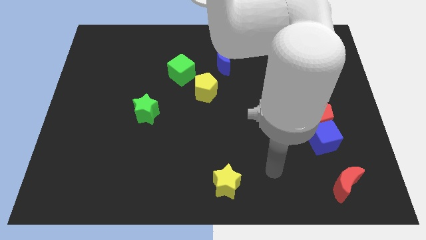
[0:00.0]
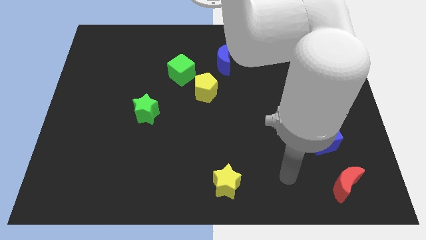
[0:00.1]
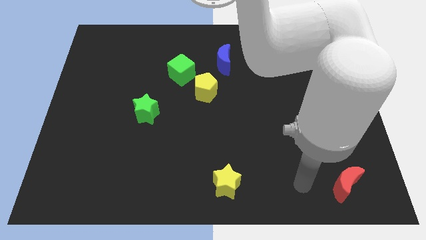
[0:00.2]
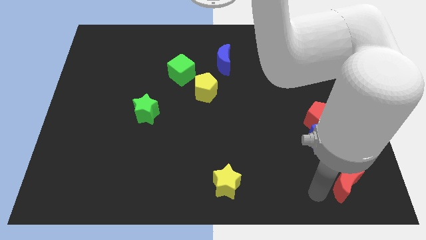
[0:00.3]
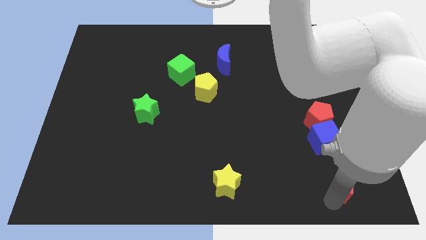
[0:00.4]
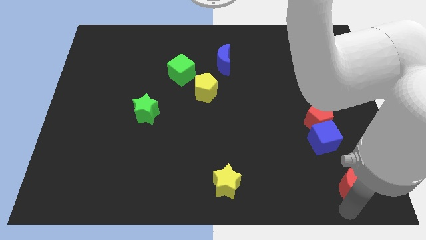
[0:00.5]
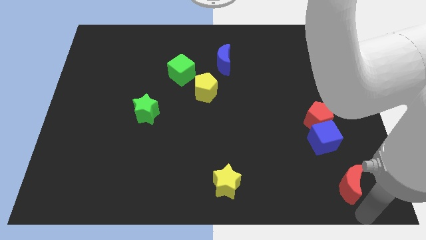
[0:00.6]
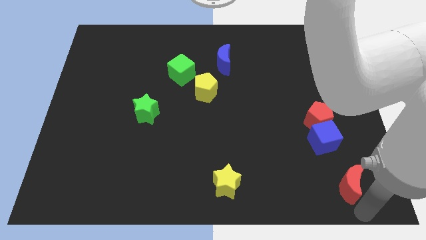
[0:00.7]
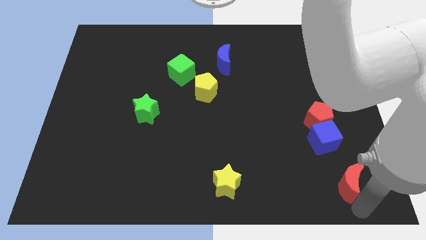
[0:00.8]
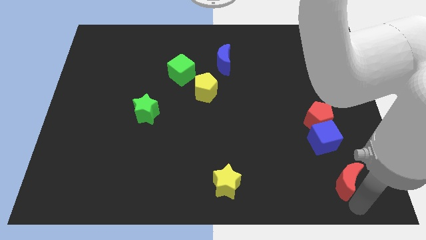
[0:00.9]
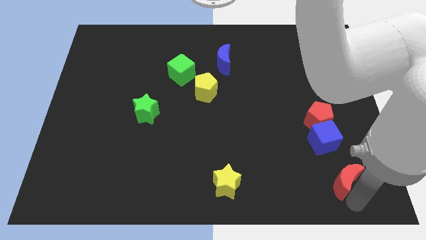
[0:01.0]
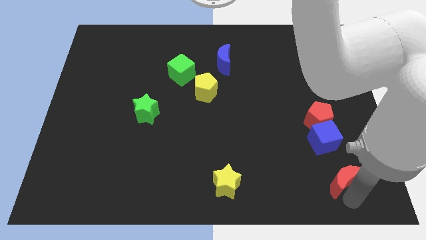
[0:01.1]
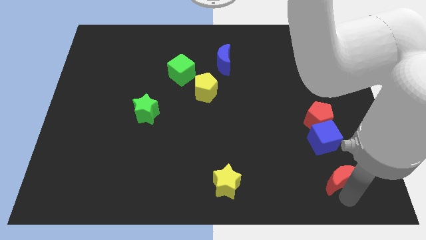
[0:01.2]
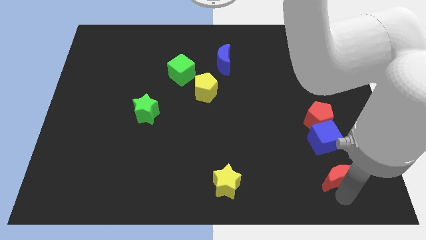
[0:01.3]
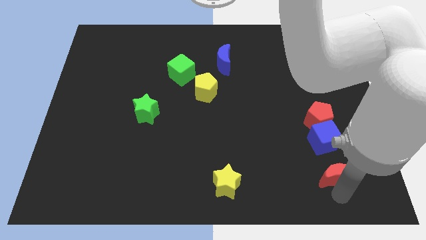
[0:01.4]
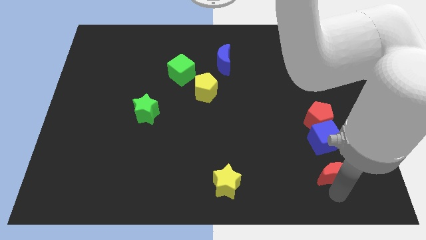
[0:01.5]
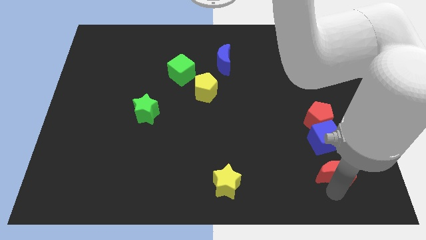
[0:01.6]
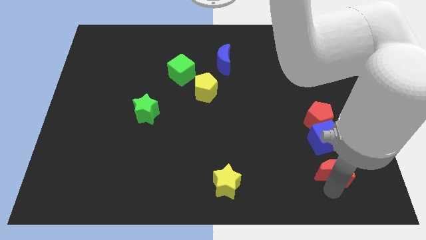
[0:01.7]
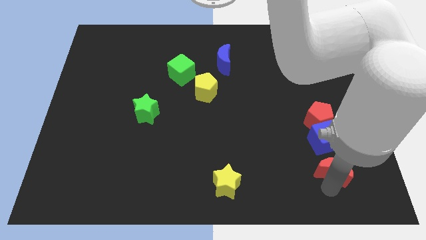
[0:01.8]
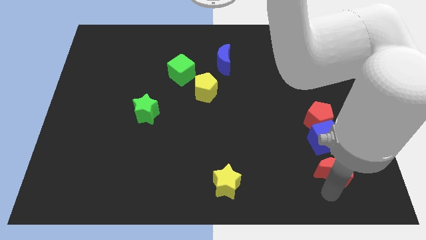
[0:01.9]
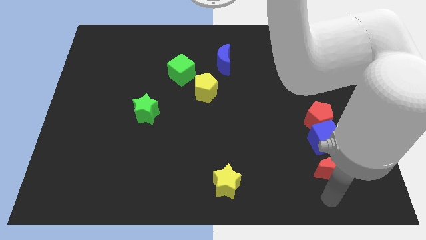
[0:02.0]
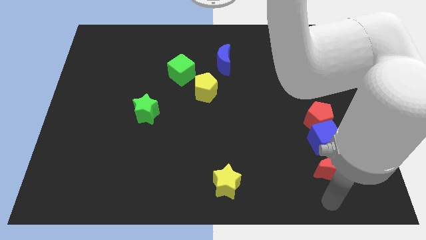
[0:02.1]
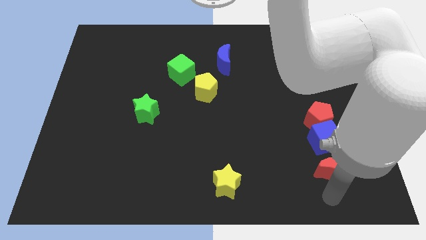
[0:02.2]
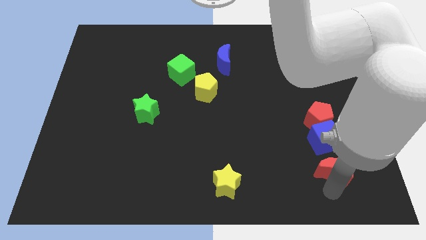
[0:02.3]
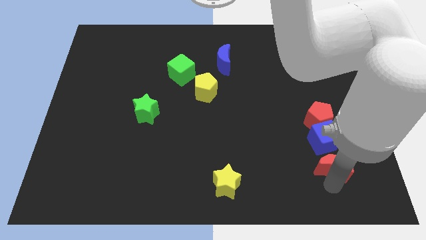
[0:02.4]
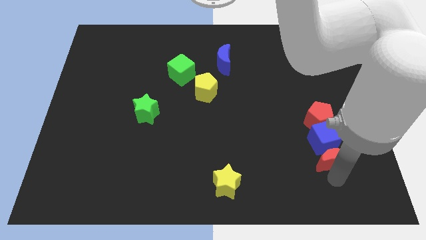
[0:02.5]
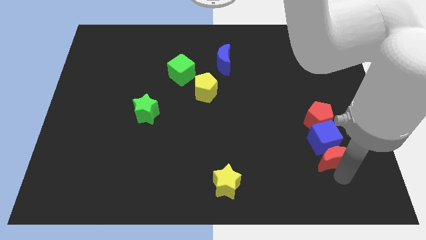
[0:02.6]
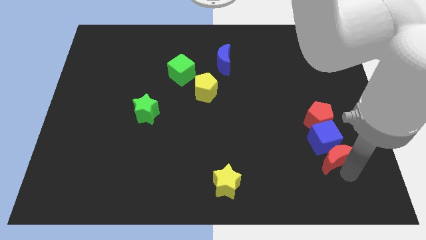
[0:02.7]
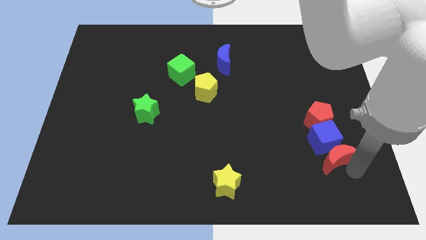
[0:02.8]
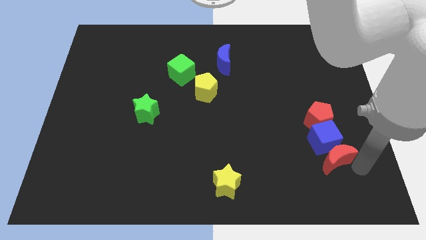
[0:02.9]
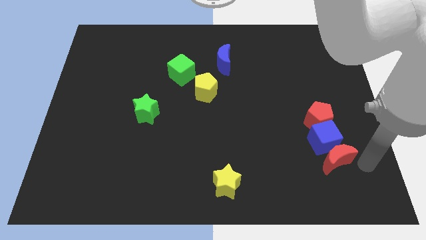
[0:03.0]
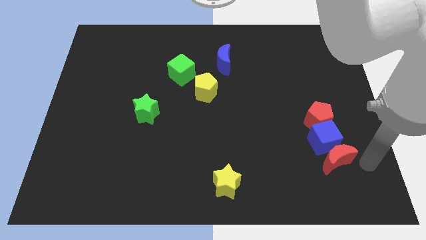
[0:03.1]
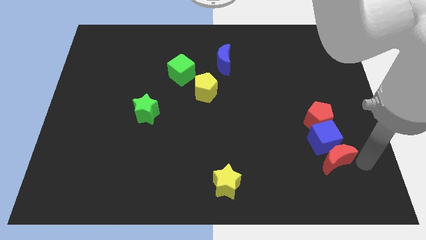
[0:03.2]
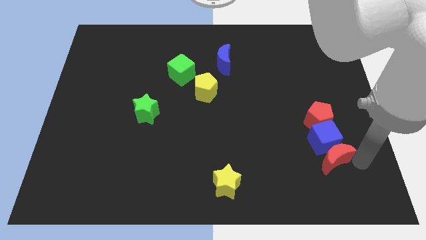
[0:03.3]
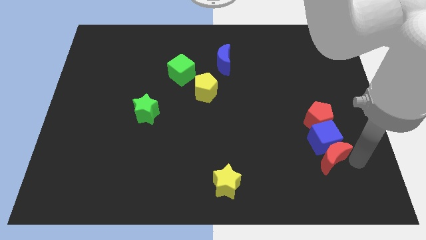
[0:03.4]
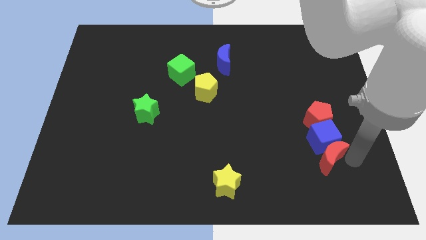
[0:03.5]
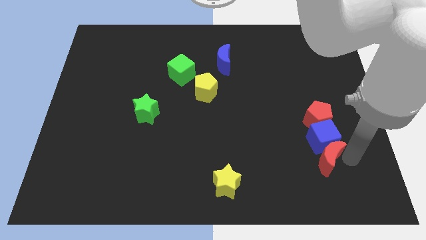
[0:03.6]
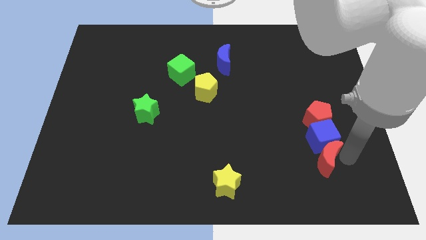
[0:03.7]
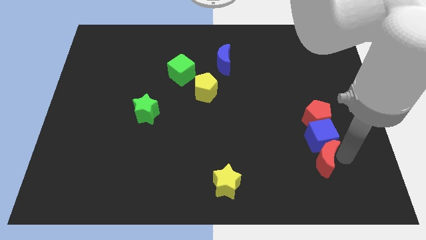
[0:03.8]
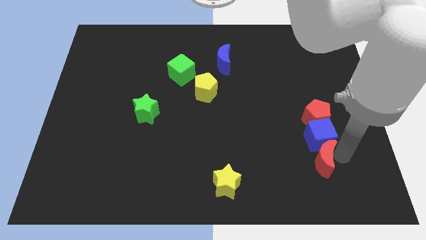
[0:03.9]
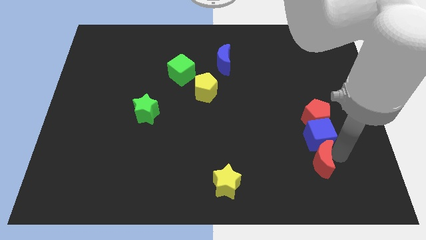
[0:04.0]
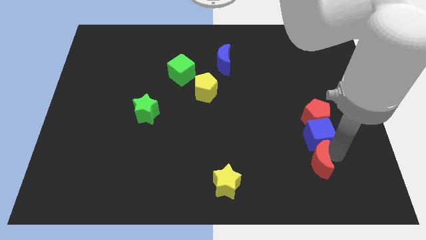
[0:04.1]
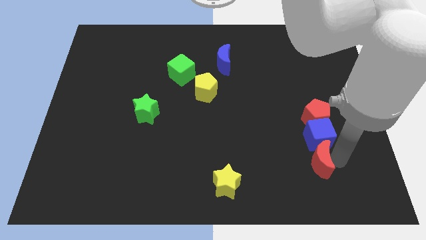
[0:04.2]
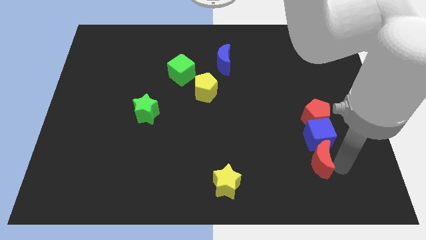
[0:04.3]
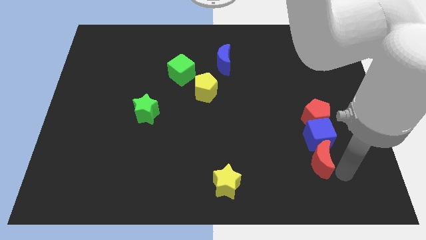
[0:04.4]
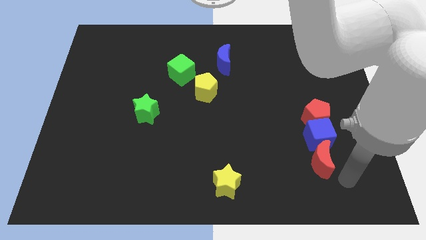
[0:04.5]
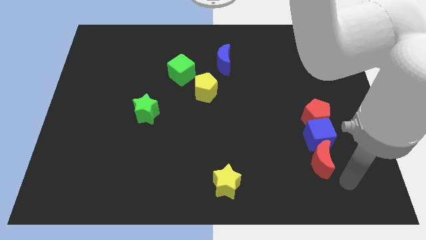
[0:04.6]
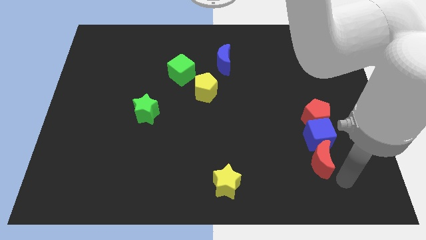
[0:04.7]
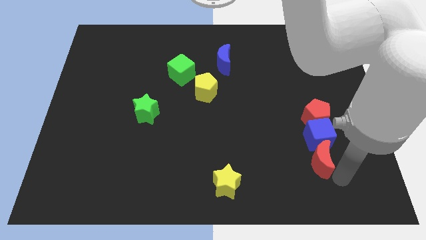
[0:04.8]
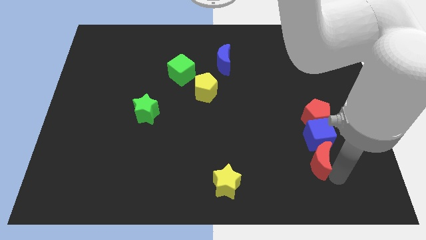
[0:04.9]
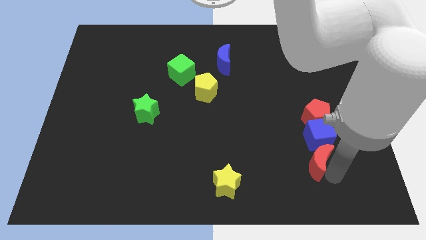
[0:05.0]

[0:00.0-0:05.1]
slide the red moon up and left a little bit

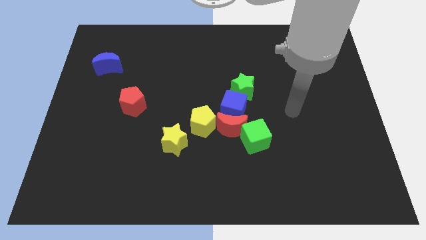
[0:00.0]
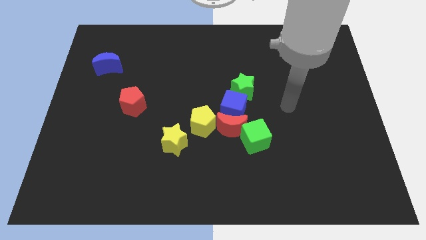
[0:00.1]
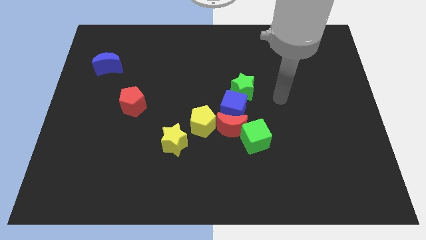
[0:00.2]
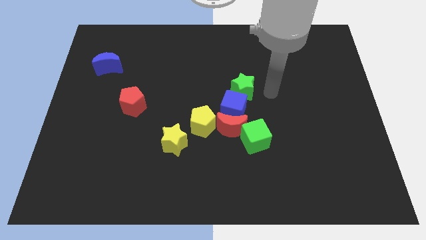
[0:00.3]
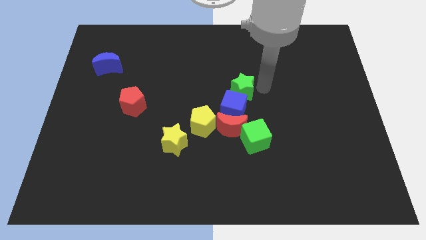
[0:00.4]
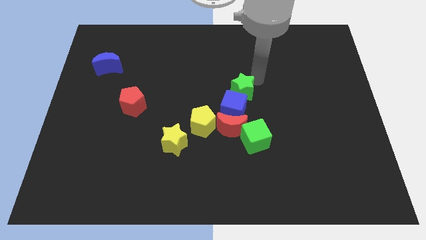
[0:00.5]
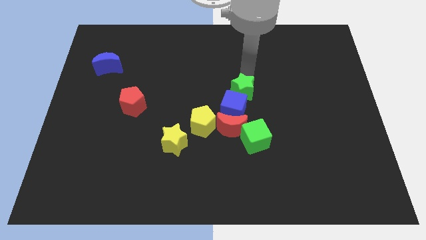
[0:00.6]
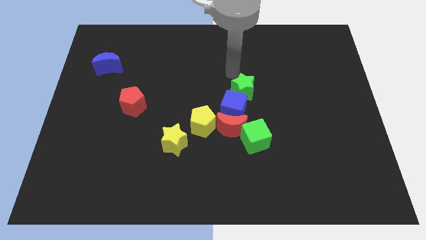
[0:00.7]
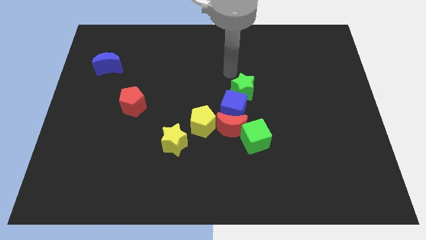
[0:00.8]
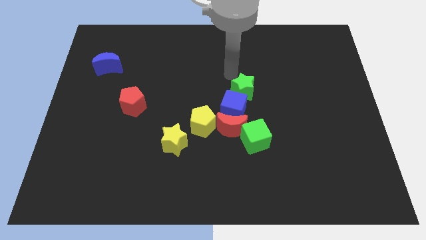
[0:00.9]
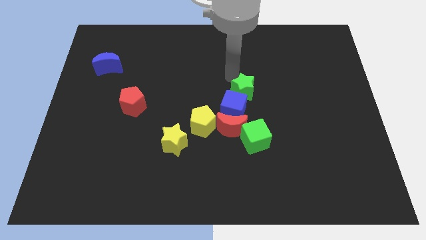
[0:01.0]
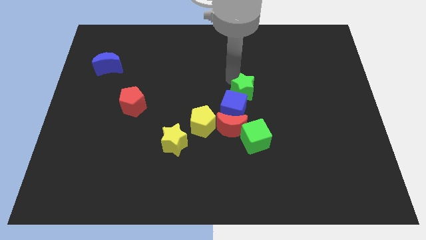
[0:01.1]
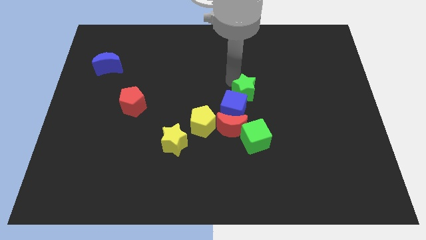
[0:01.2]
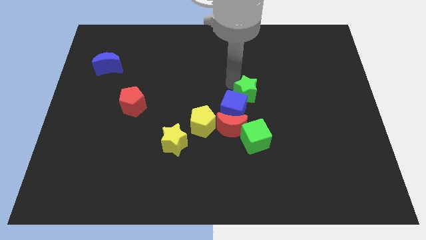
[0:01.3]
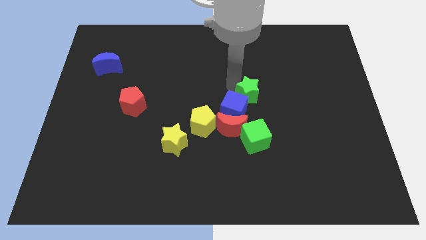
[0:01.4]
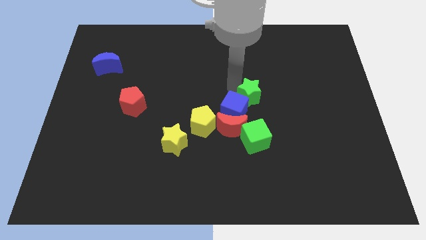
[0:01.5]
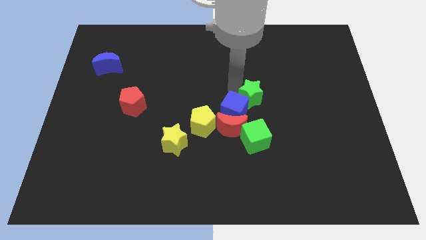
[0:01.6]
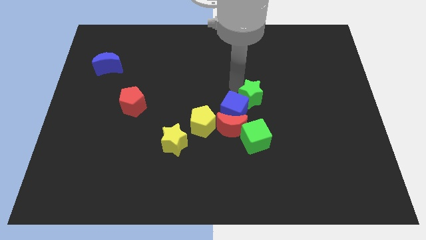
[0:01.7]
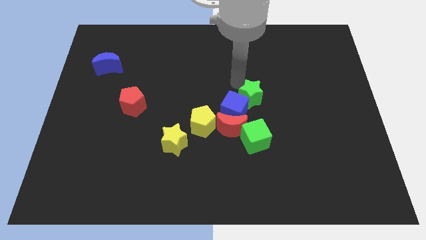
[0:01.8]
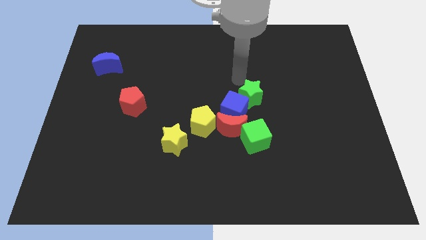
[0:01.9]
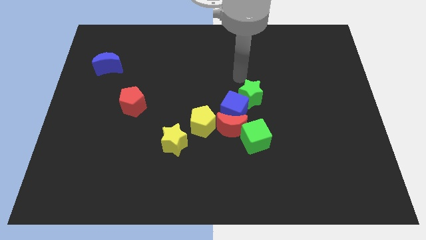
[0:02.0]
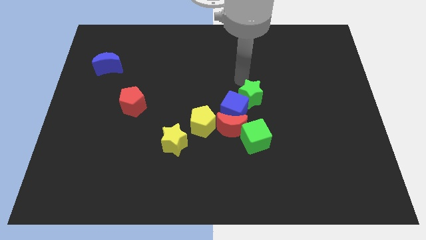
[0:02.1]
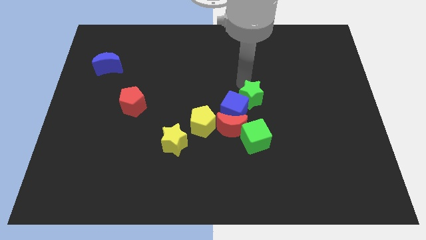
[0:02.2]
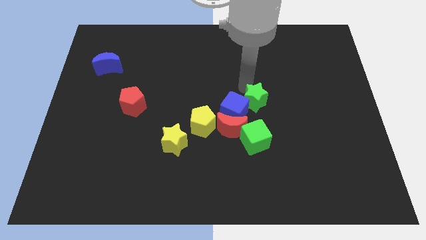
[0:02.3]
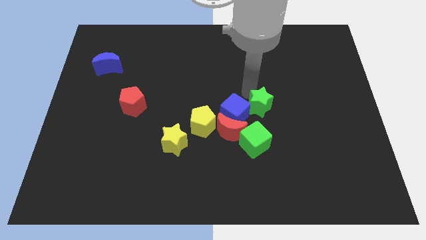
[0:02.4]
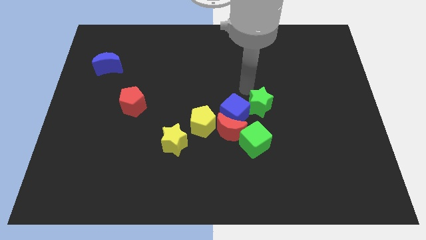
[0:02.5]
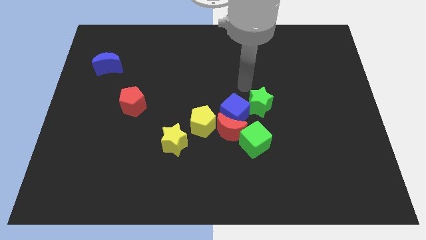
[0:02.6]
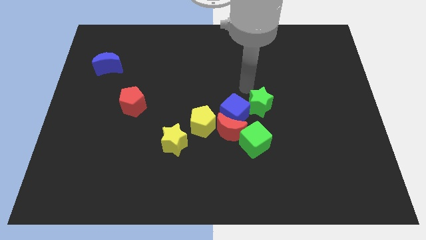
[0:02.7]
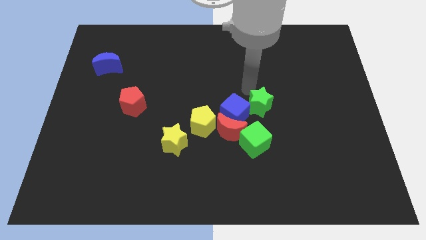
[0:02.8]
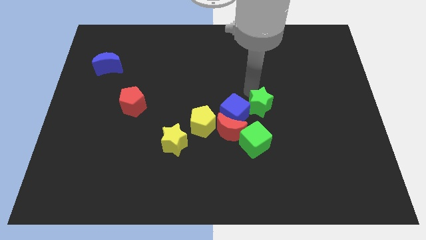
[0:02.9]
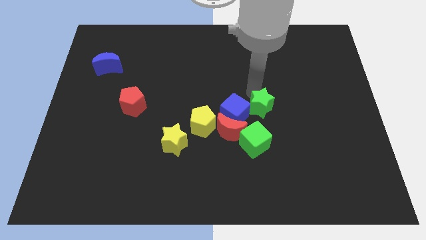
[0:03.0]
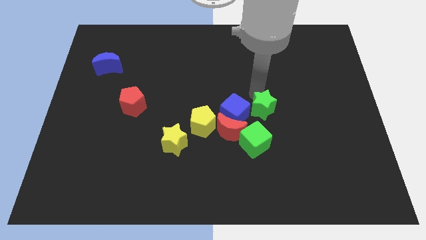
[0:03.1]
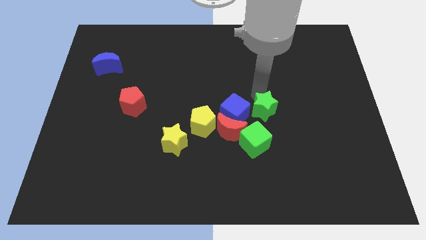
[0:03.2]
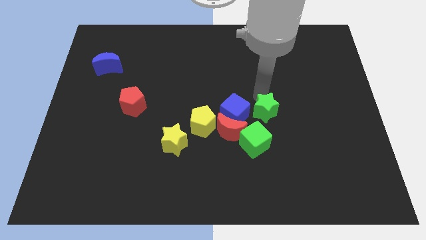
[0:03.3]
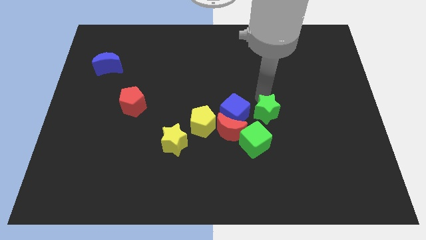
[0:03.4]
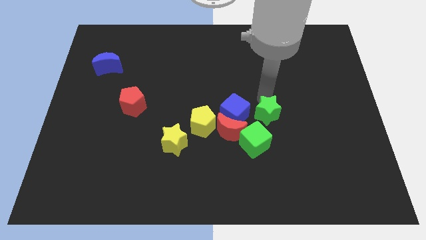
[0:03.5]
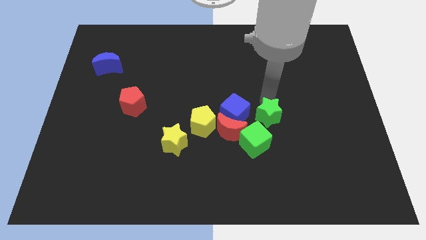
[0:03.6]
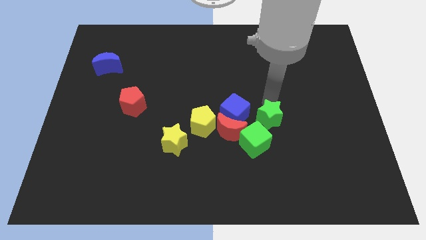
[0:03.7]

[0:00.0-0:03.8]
slightly push the green star down
